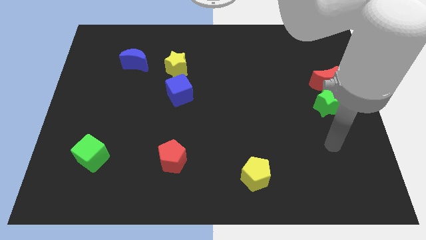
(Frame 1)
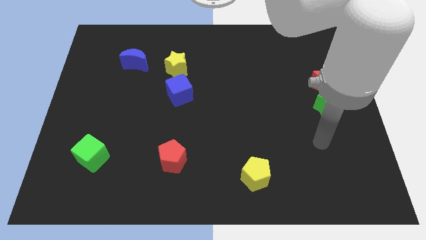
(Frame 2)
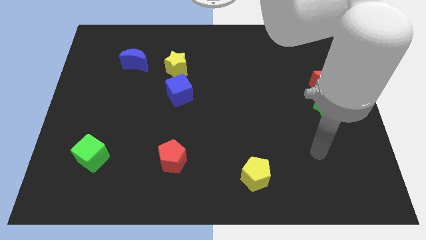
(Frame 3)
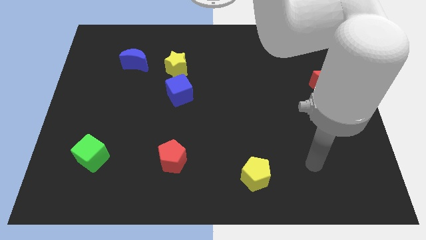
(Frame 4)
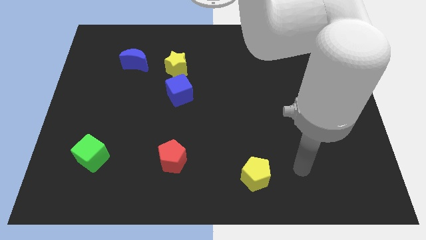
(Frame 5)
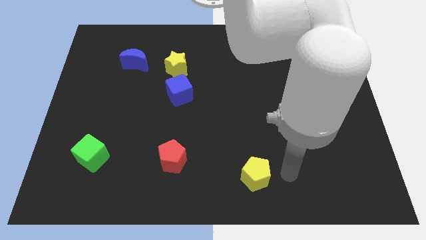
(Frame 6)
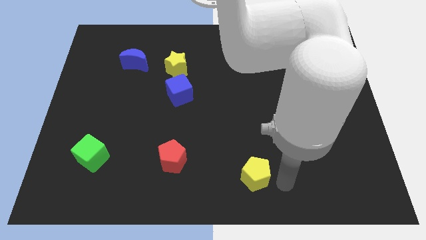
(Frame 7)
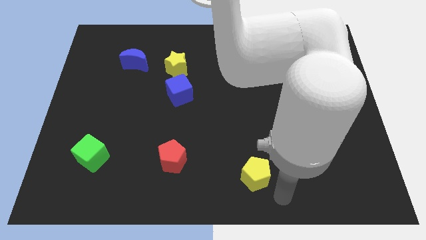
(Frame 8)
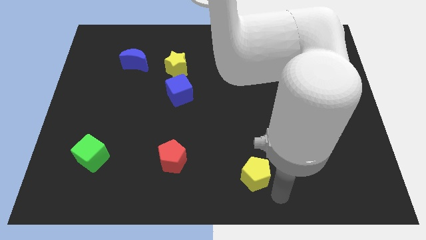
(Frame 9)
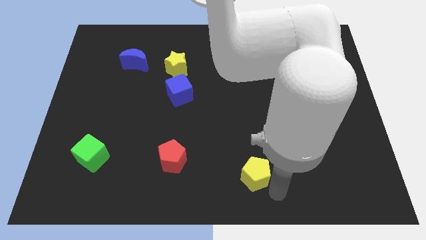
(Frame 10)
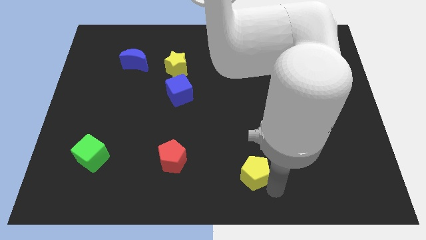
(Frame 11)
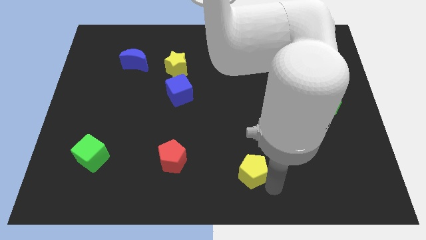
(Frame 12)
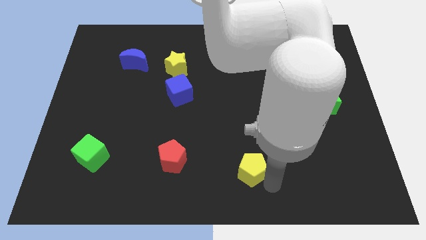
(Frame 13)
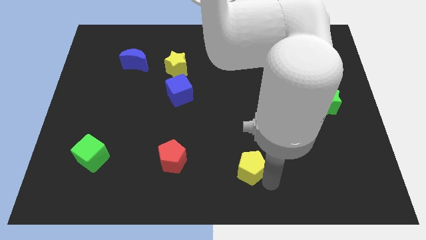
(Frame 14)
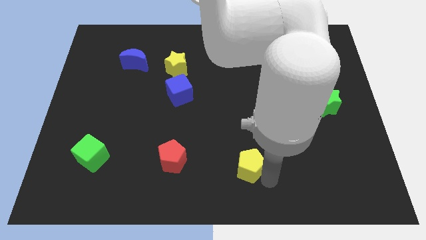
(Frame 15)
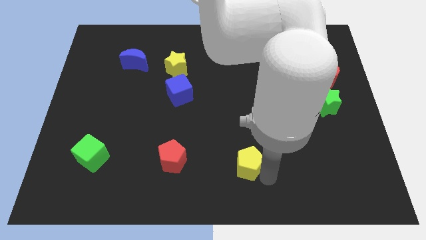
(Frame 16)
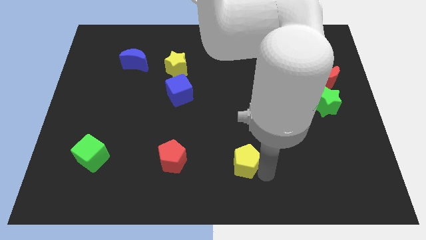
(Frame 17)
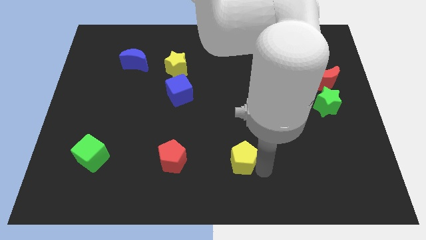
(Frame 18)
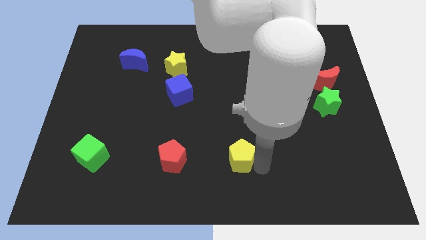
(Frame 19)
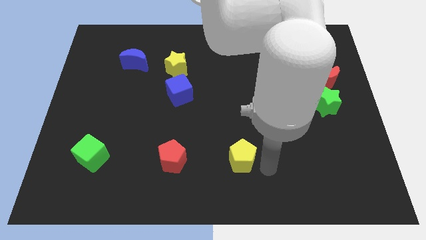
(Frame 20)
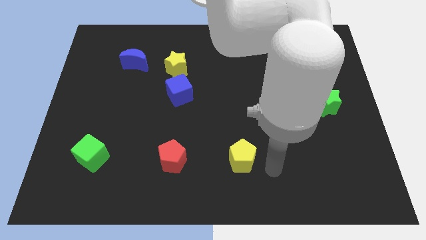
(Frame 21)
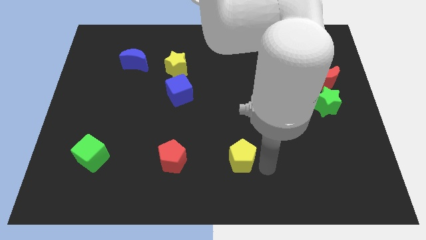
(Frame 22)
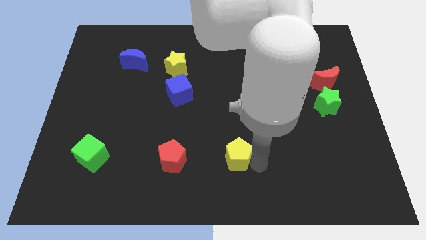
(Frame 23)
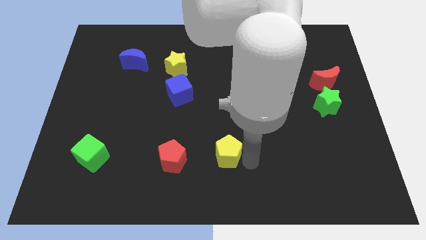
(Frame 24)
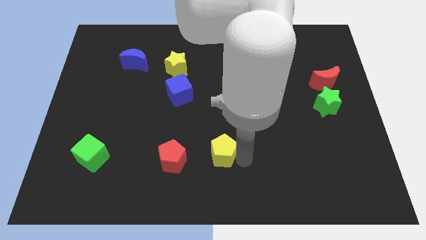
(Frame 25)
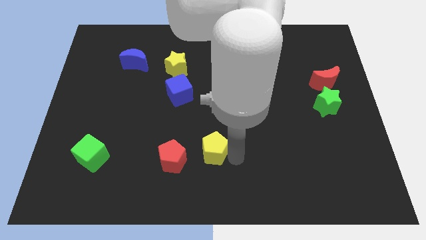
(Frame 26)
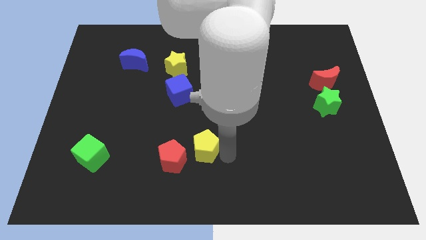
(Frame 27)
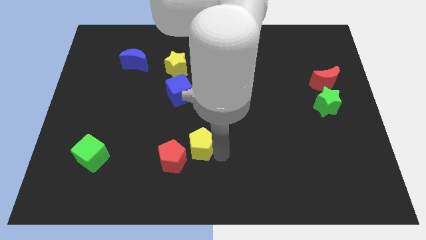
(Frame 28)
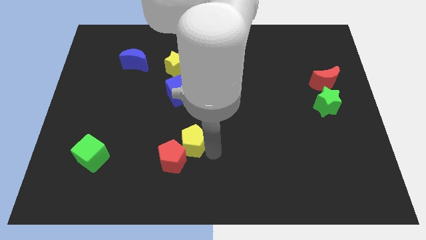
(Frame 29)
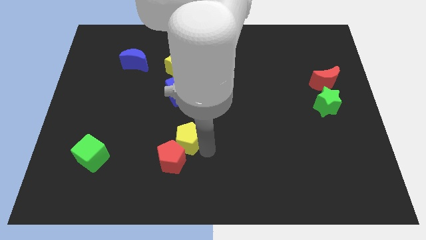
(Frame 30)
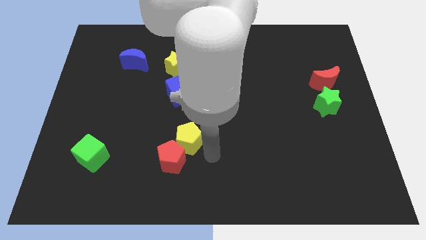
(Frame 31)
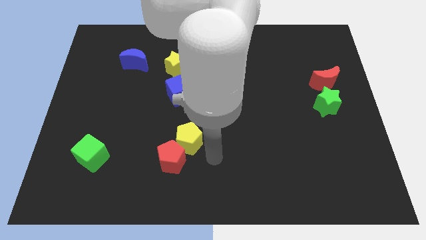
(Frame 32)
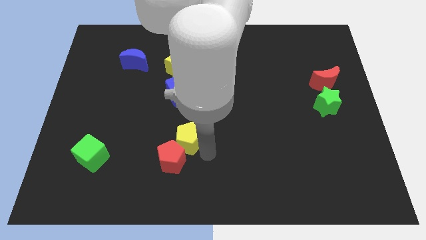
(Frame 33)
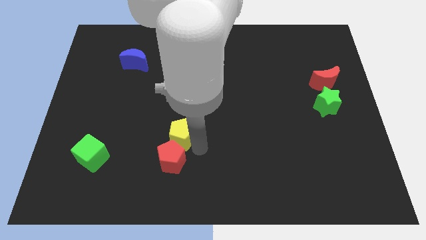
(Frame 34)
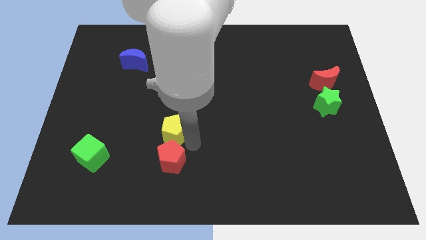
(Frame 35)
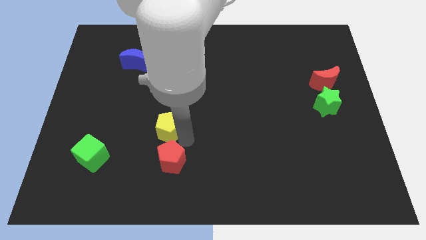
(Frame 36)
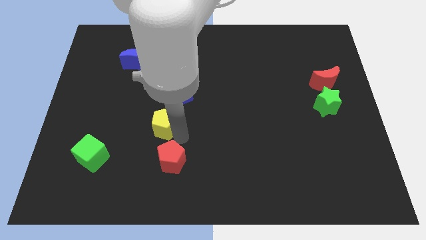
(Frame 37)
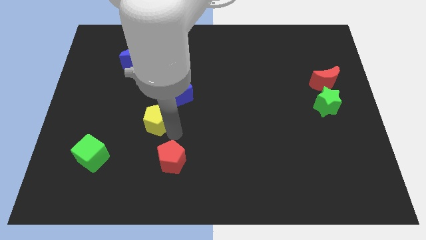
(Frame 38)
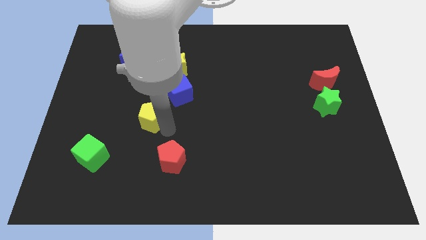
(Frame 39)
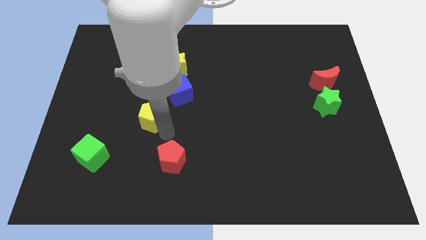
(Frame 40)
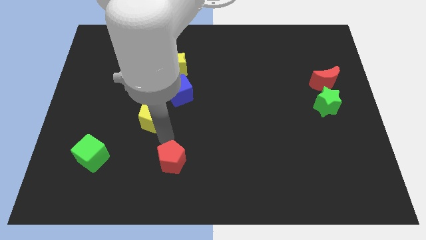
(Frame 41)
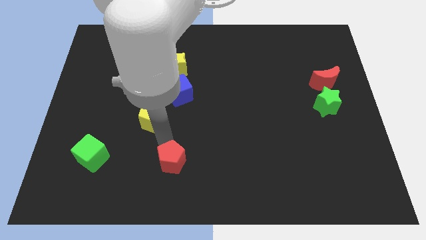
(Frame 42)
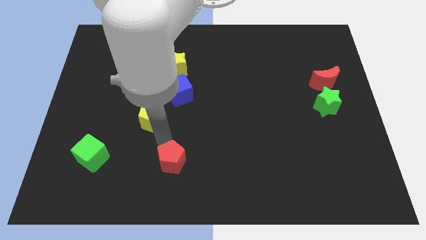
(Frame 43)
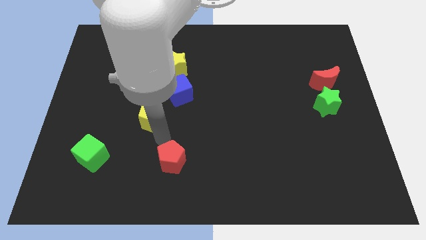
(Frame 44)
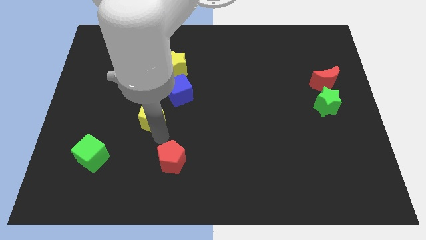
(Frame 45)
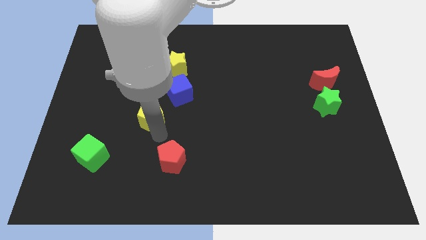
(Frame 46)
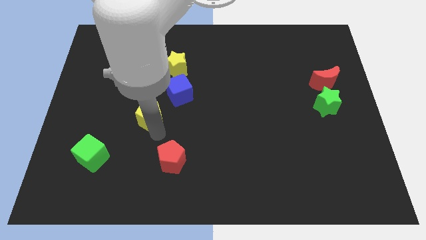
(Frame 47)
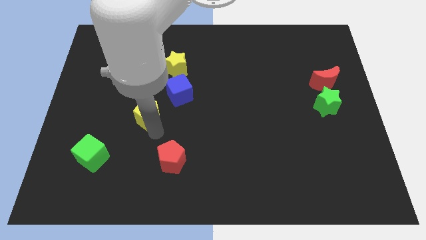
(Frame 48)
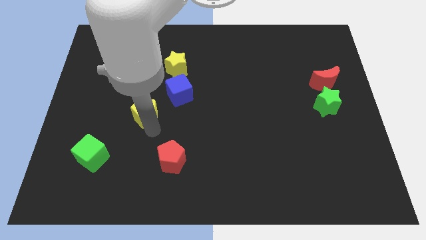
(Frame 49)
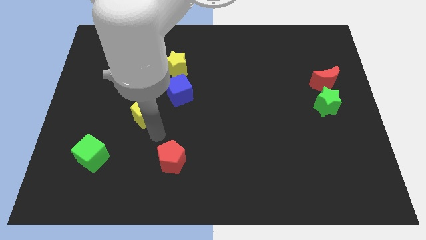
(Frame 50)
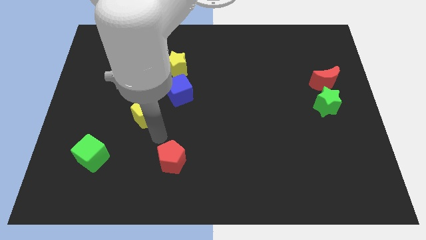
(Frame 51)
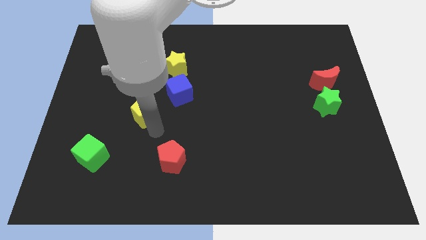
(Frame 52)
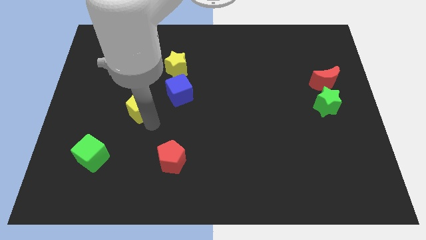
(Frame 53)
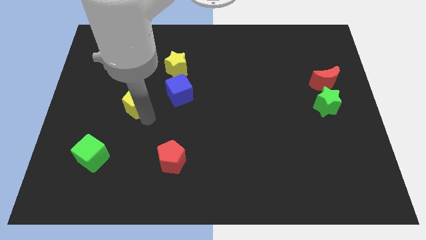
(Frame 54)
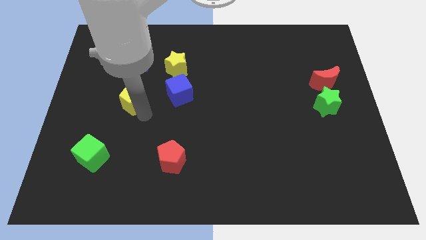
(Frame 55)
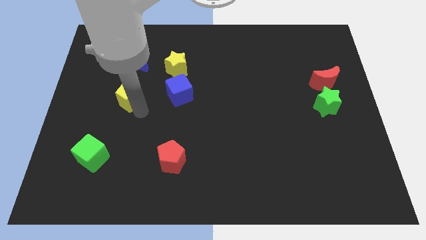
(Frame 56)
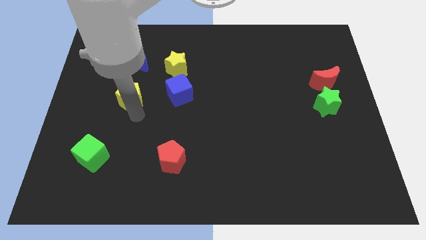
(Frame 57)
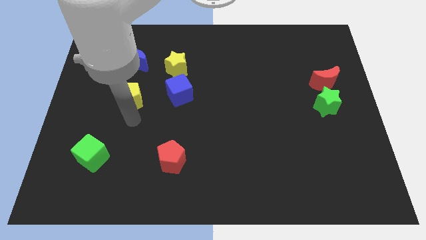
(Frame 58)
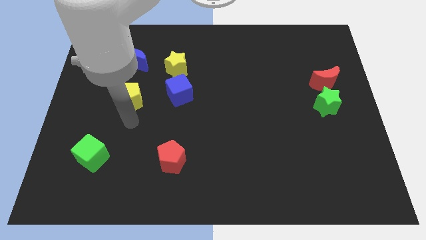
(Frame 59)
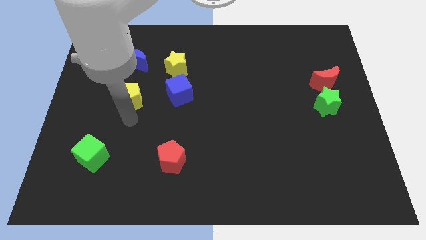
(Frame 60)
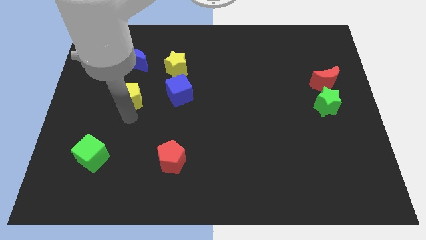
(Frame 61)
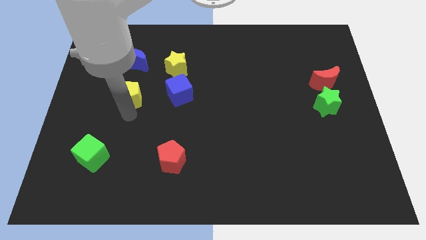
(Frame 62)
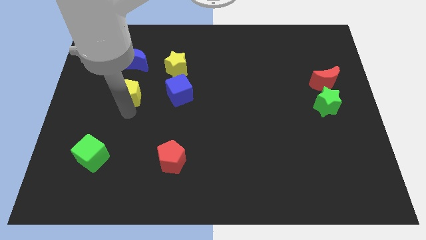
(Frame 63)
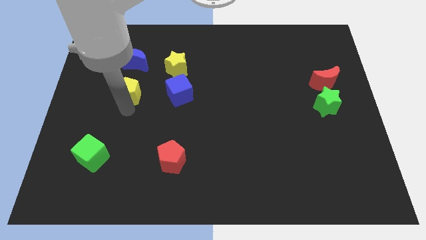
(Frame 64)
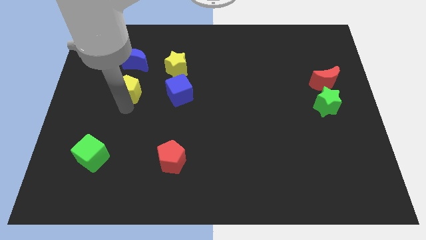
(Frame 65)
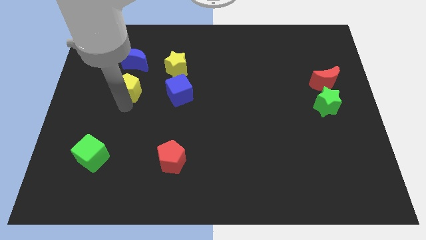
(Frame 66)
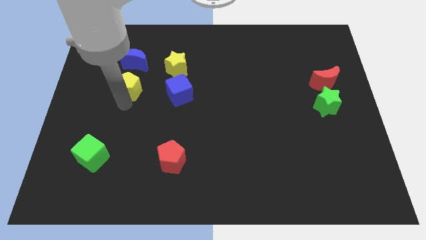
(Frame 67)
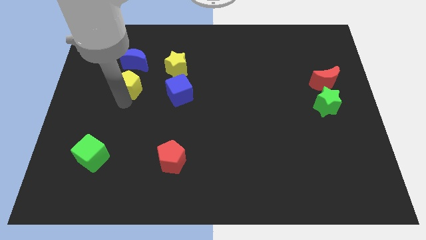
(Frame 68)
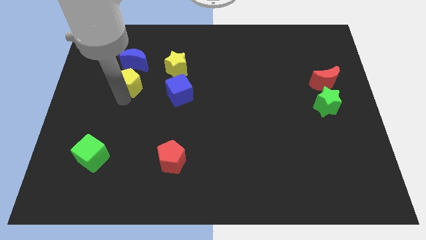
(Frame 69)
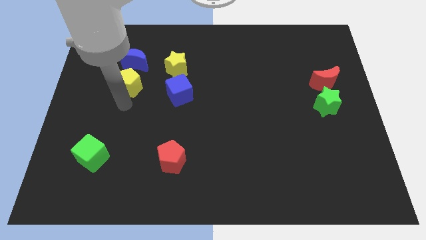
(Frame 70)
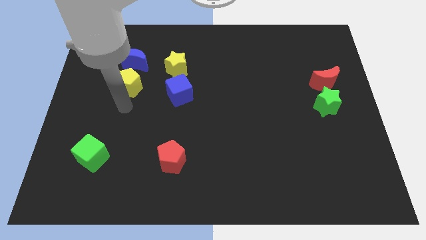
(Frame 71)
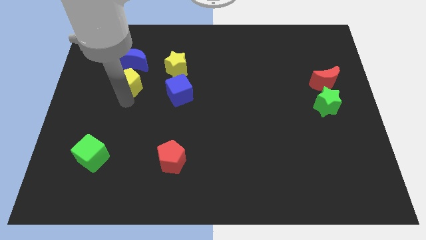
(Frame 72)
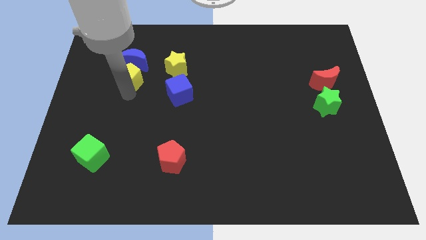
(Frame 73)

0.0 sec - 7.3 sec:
put the yellow pentagon next to the blue moon

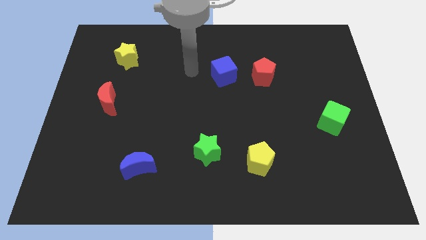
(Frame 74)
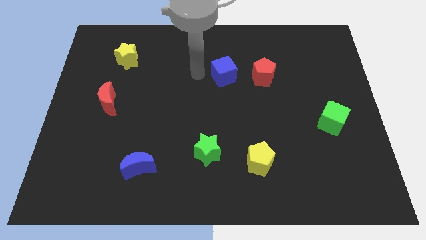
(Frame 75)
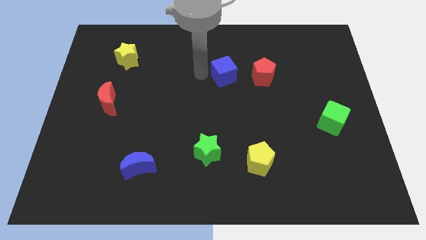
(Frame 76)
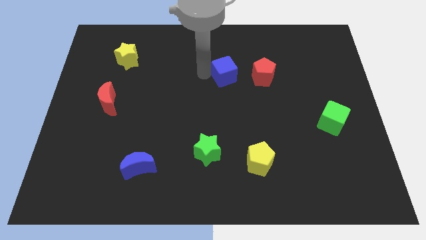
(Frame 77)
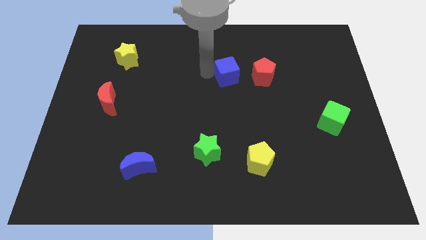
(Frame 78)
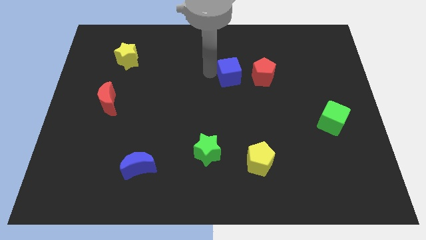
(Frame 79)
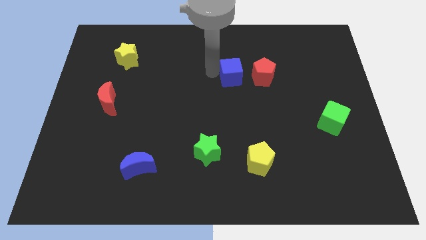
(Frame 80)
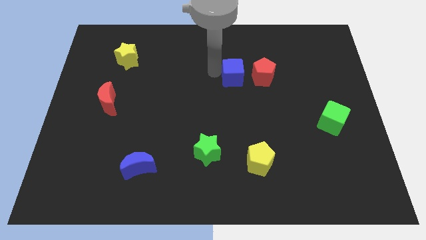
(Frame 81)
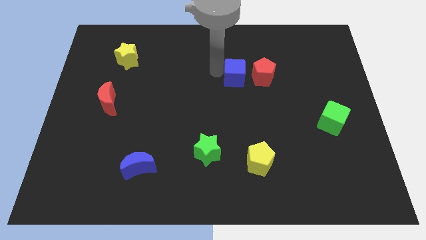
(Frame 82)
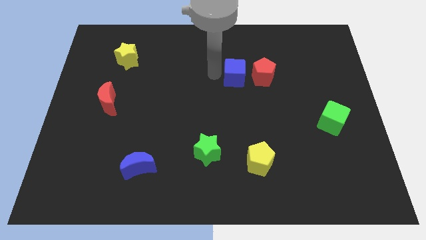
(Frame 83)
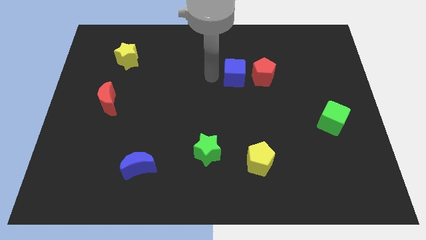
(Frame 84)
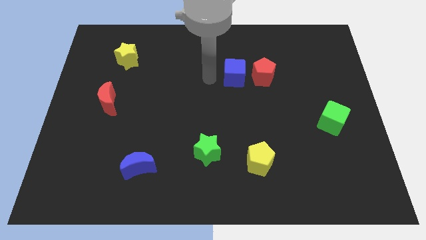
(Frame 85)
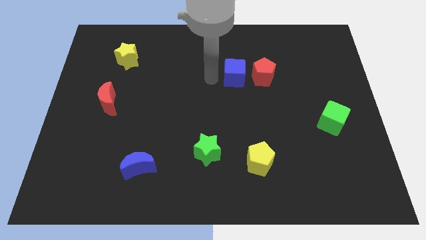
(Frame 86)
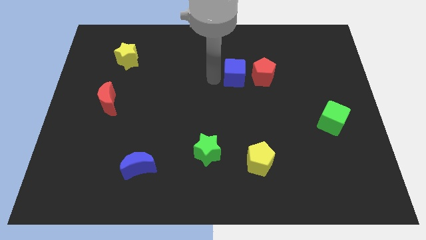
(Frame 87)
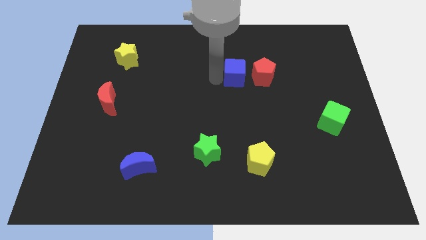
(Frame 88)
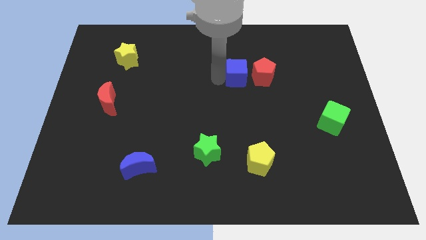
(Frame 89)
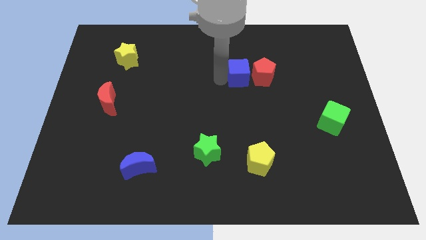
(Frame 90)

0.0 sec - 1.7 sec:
push the blue cube close to the red pentagon
